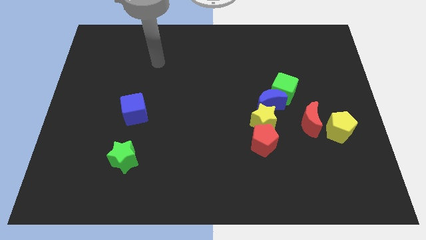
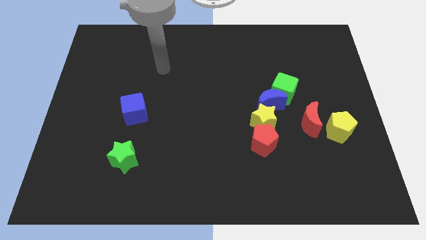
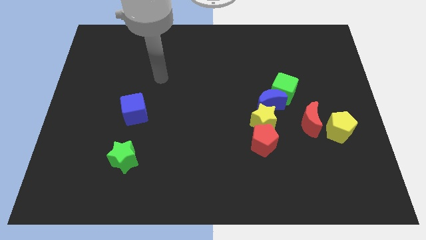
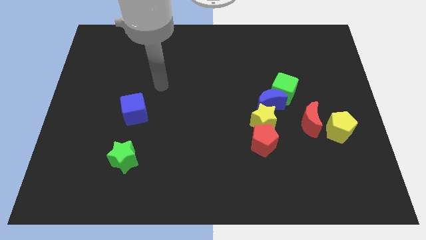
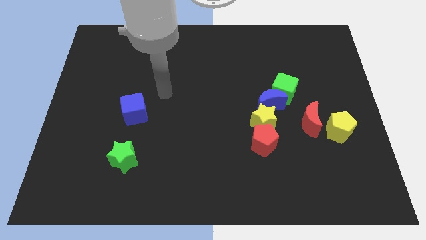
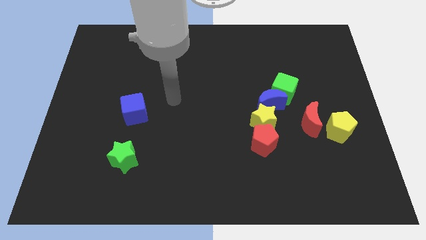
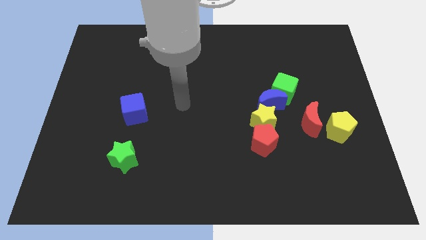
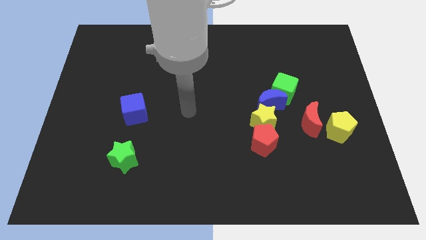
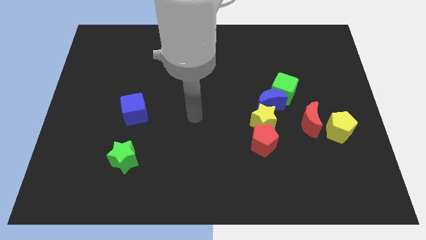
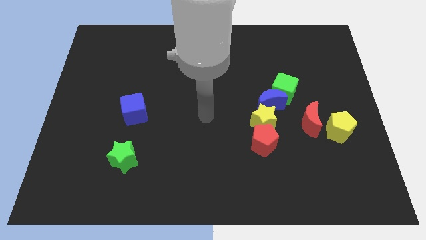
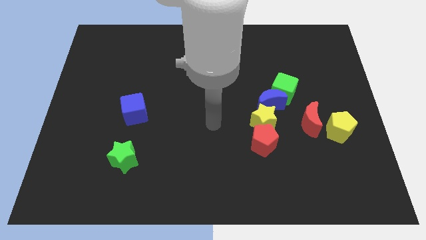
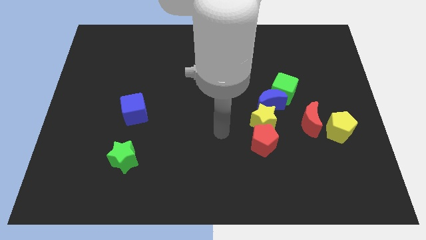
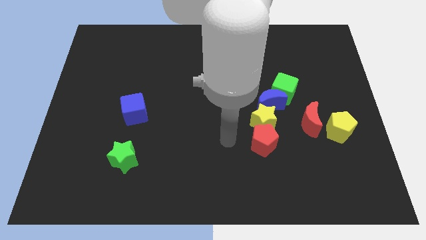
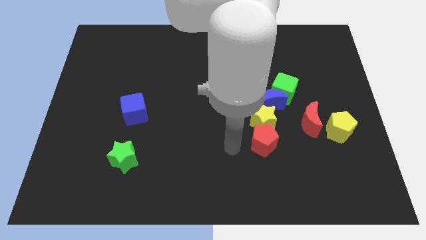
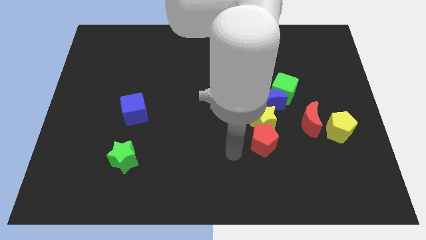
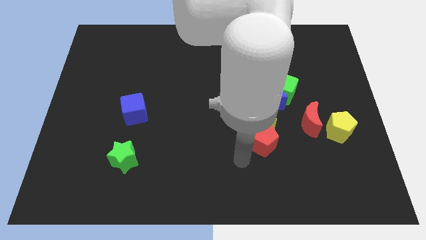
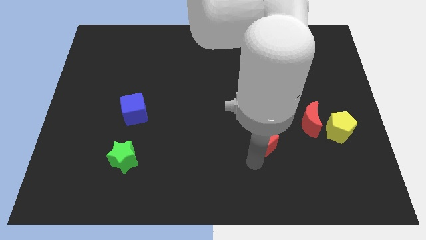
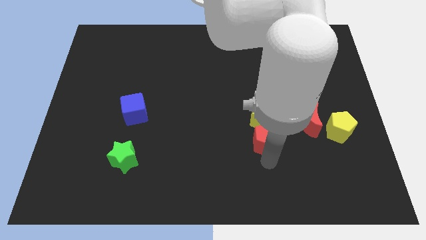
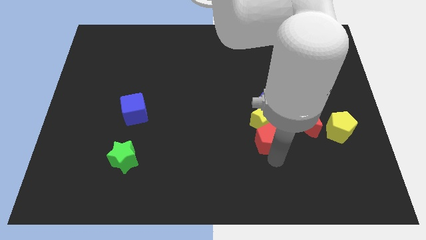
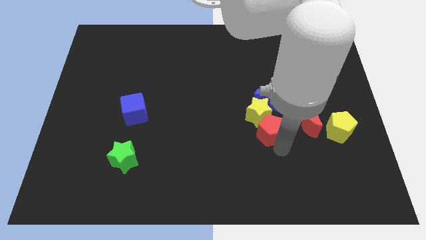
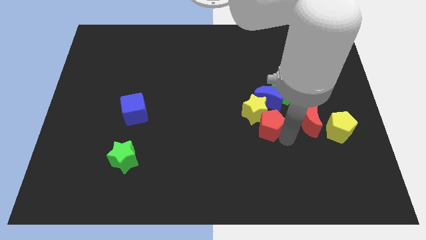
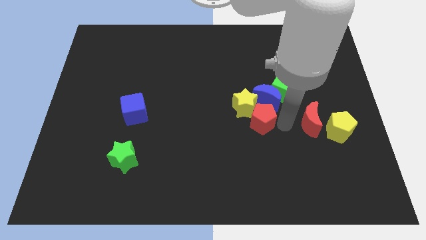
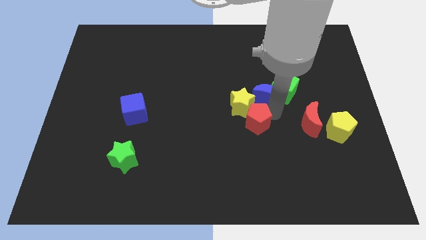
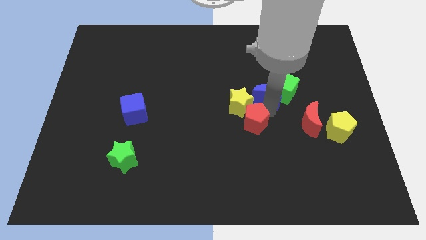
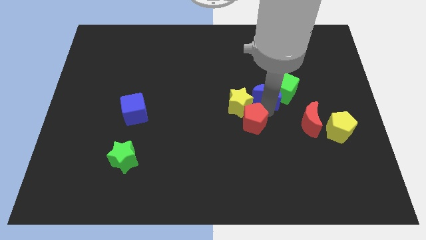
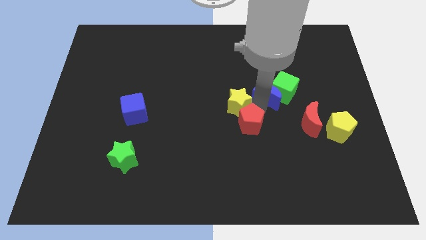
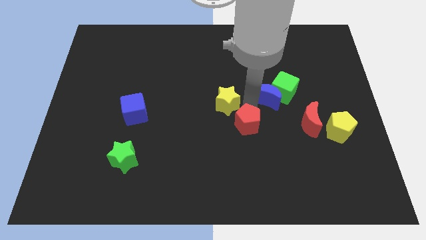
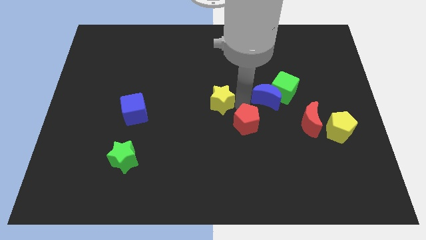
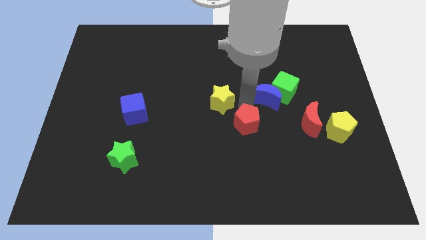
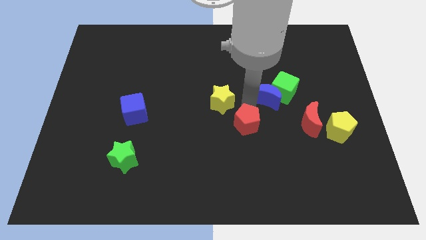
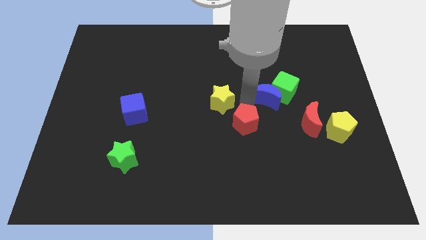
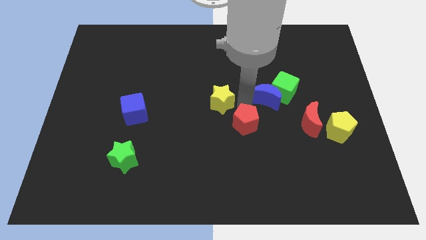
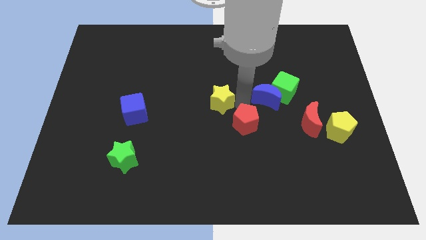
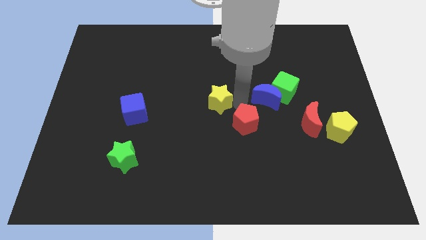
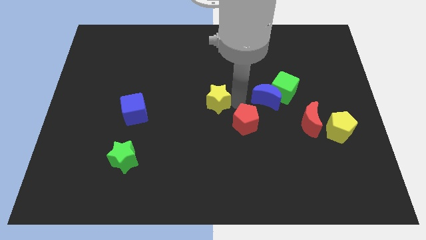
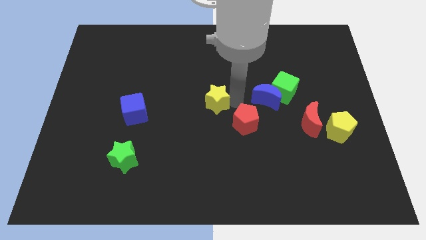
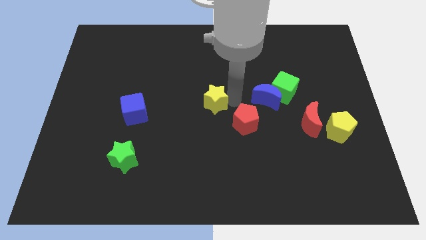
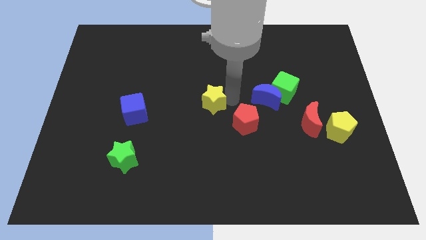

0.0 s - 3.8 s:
move the yellow star away from the blue moon and red pentagon

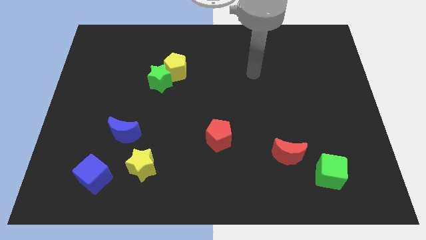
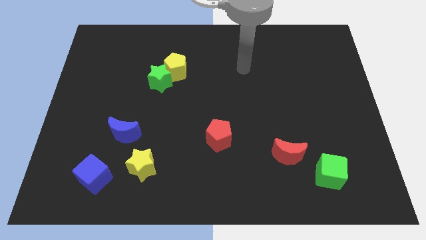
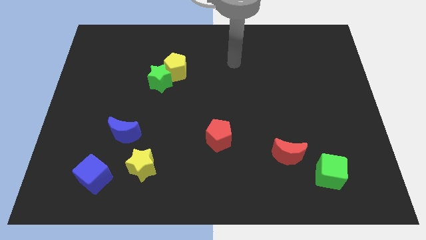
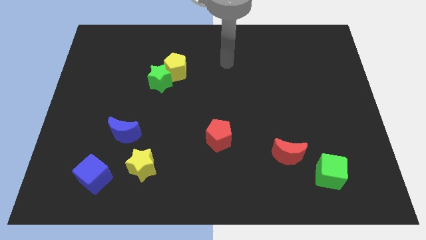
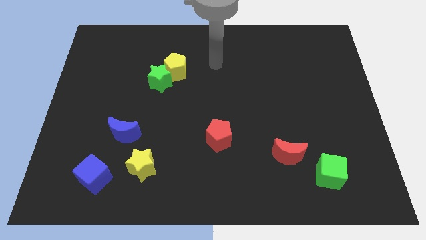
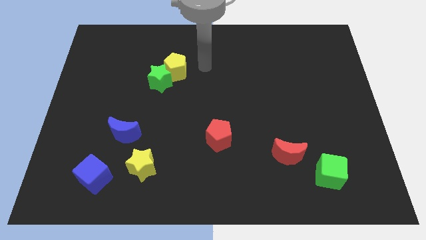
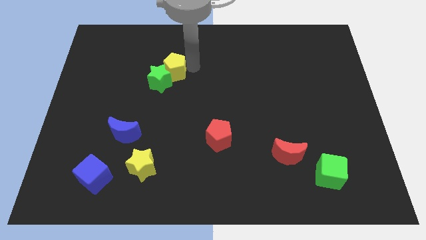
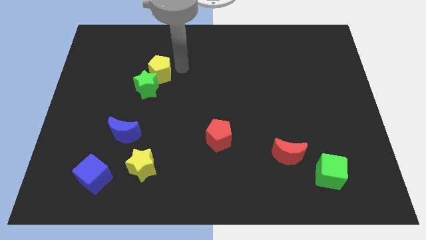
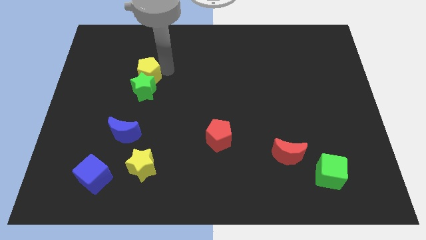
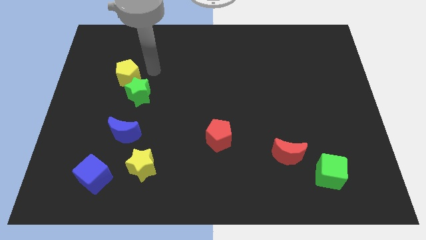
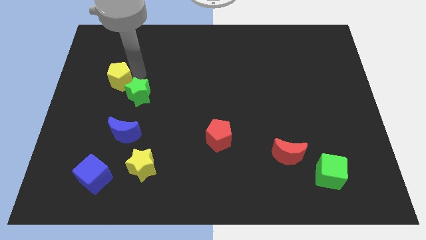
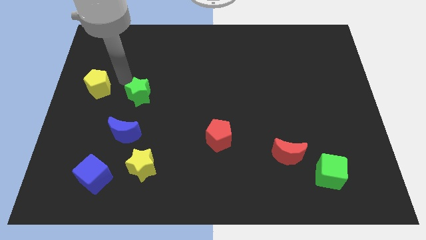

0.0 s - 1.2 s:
separate the green star from the yellow pentagon

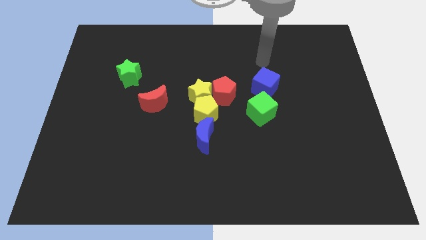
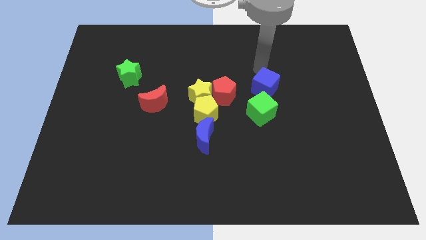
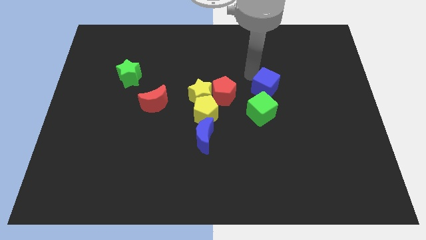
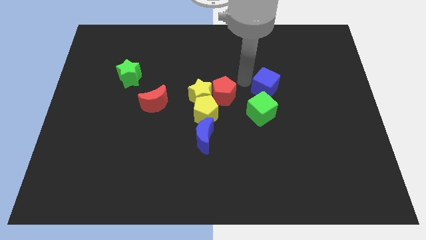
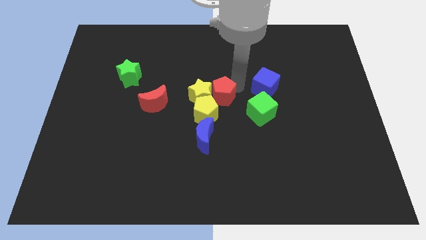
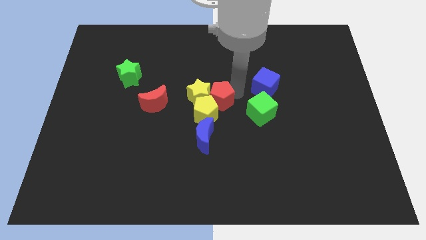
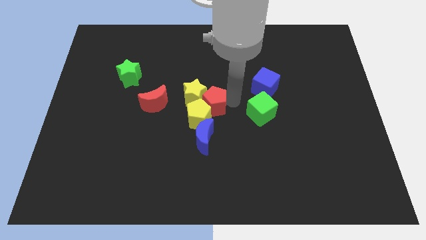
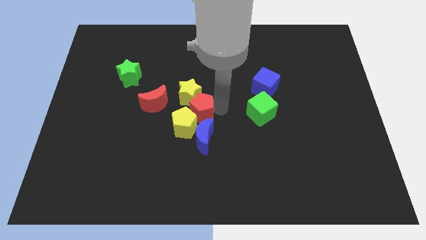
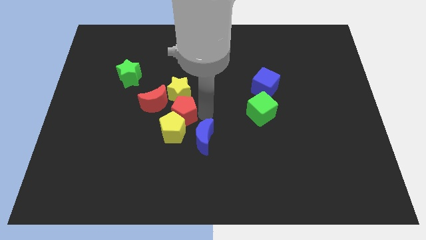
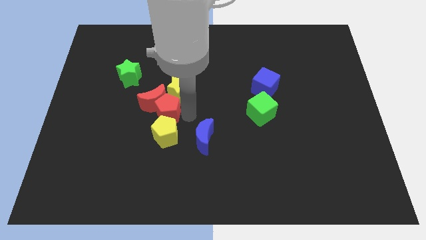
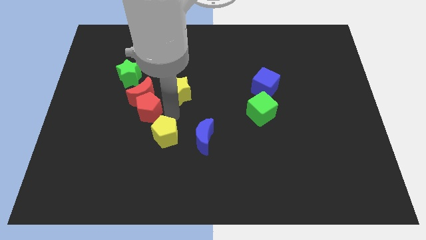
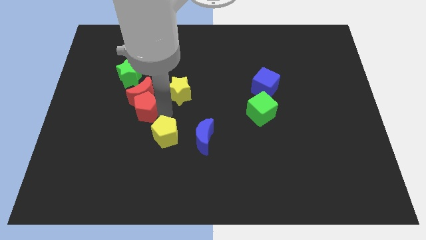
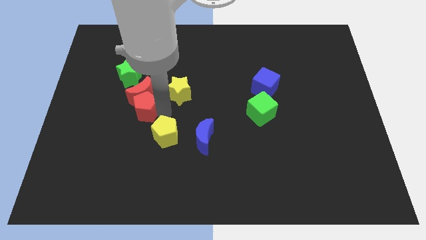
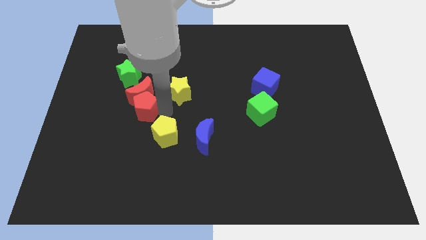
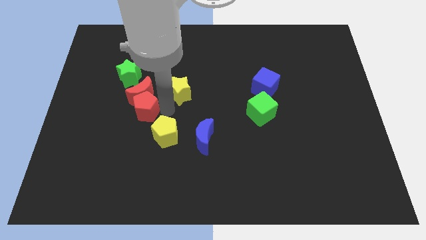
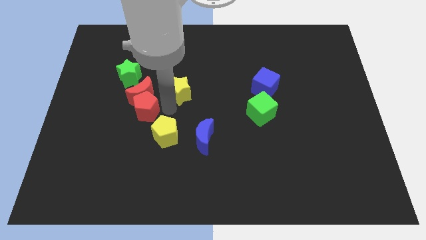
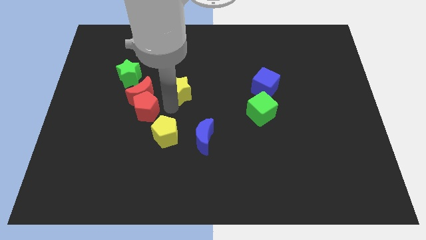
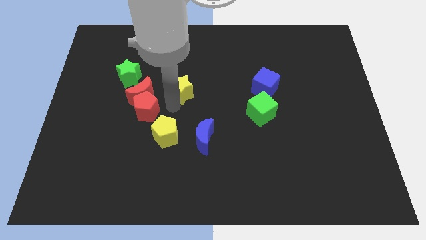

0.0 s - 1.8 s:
move the yellow star away from the yellow pentagon and red pentagon

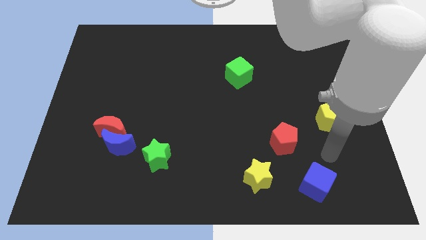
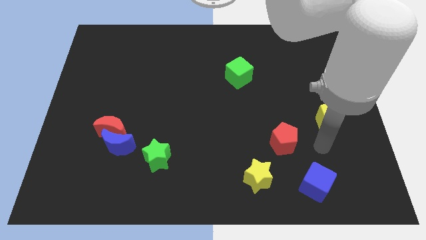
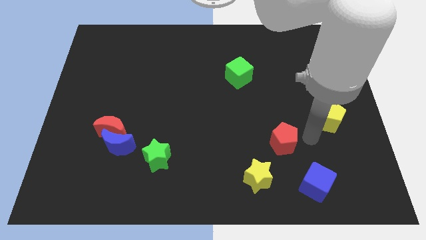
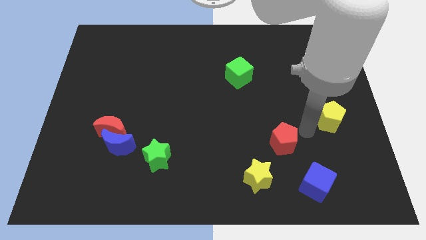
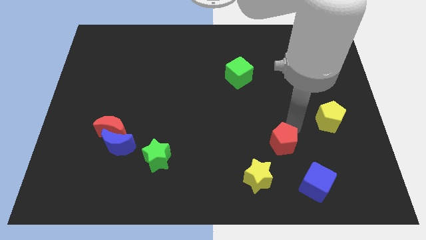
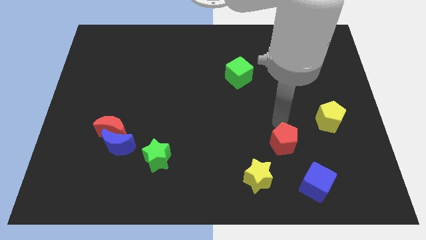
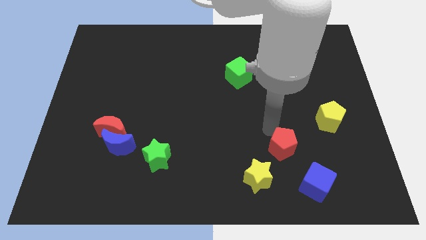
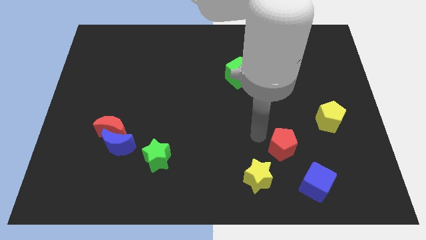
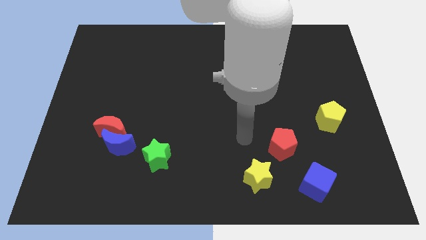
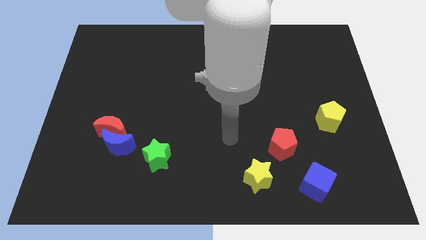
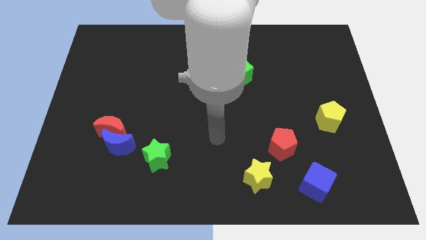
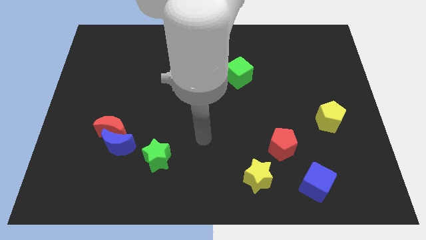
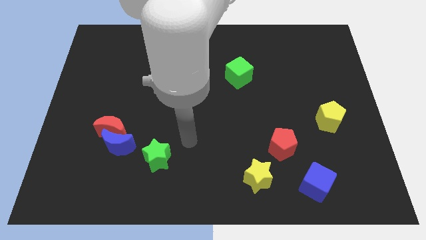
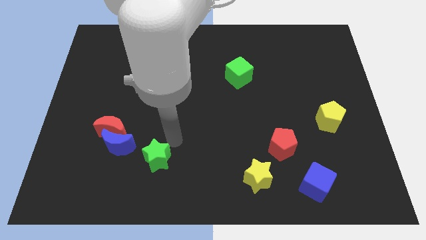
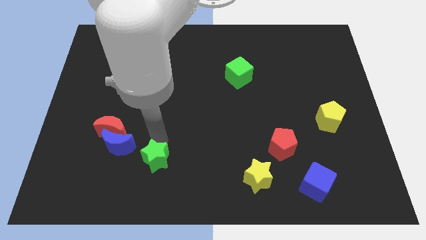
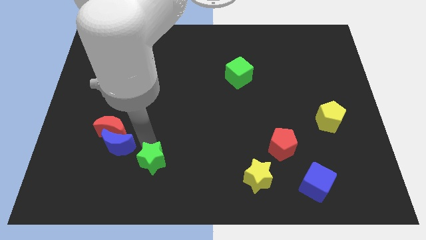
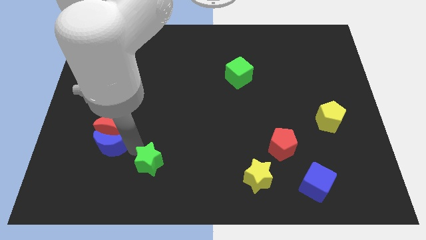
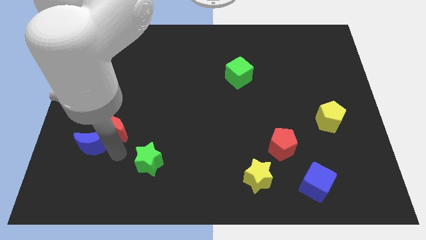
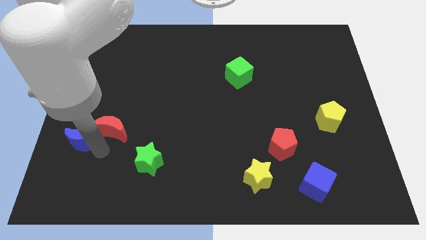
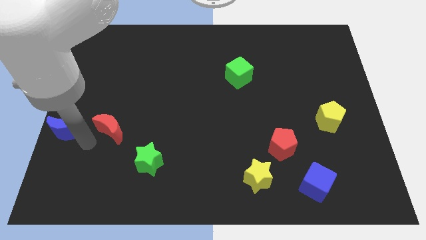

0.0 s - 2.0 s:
move the red moon away from the blue moon

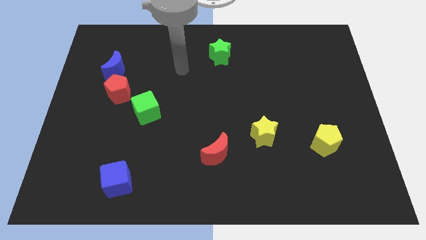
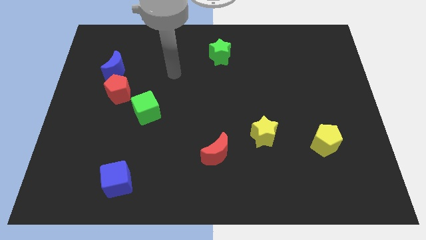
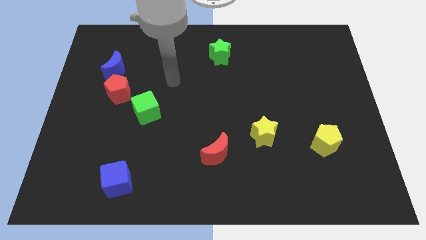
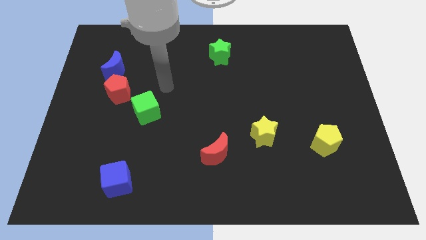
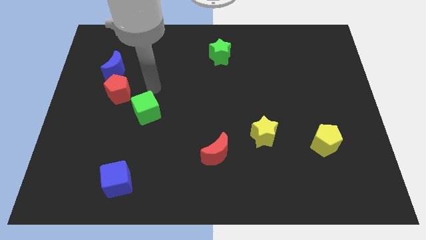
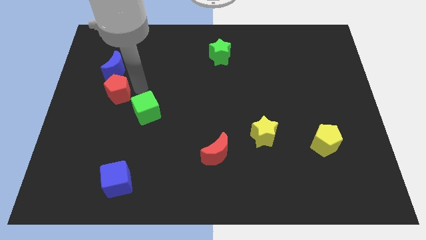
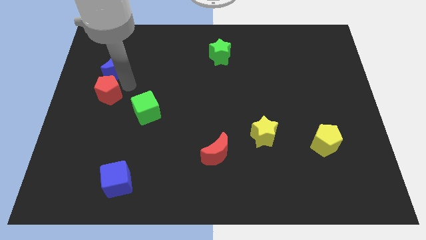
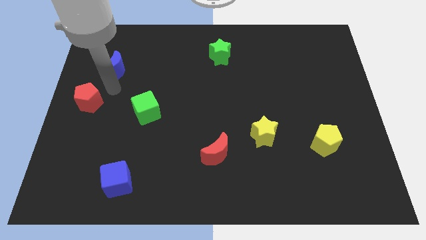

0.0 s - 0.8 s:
pull the blue moon apart from the red pentagon
